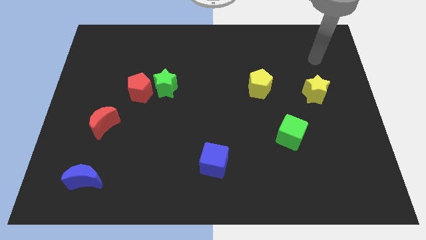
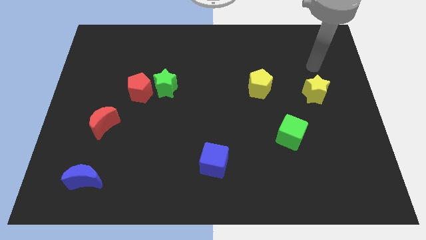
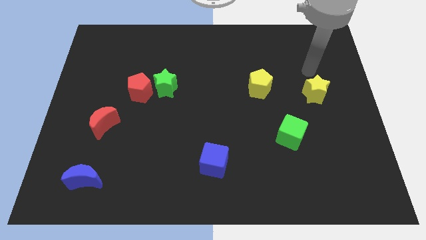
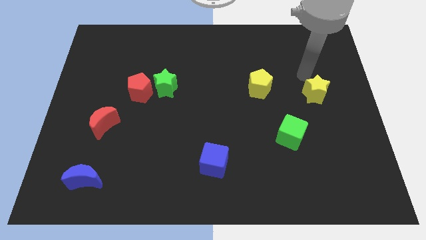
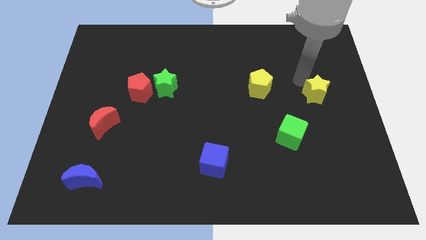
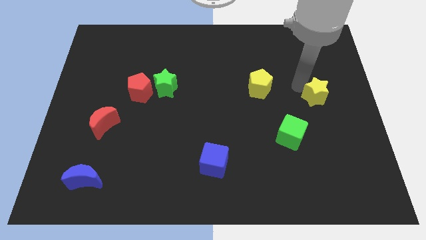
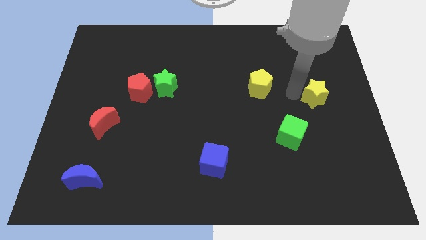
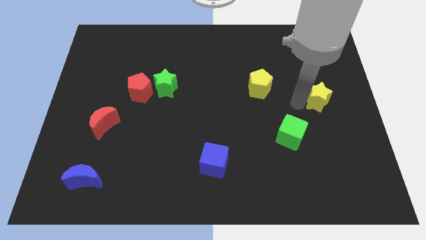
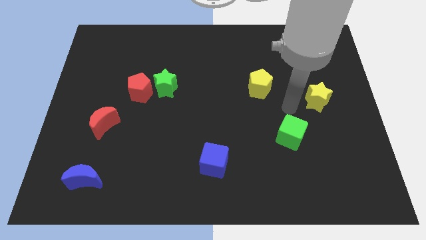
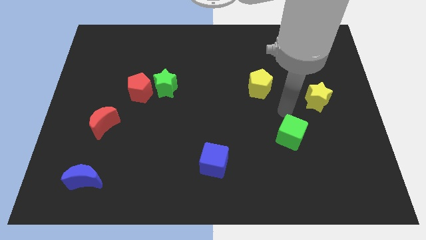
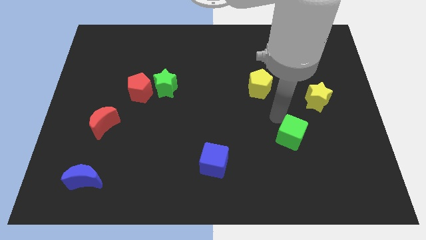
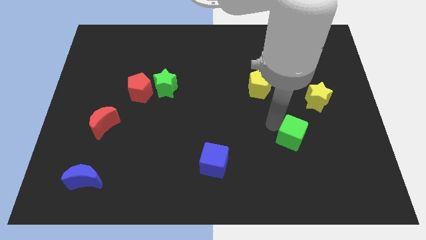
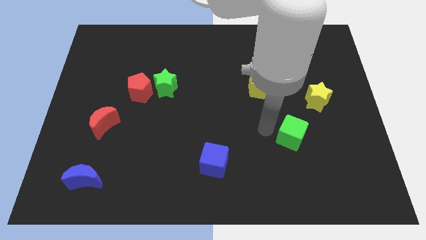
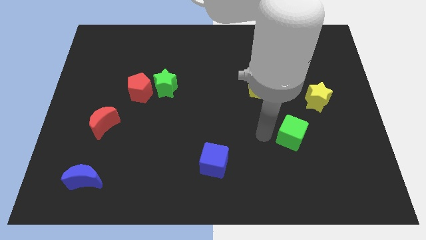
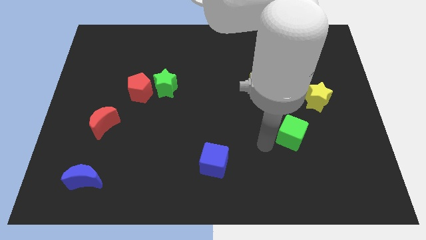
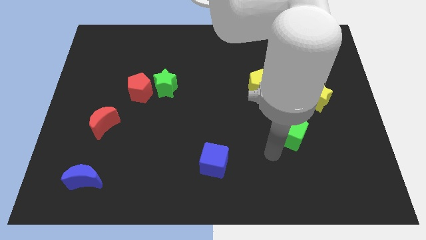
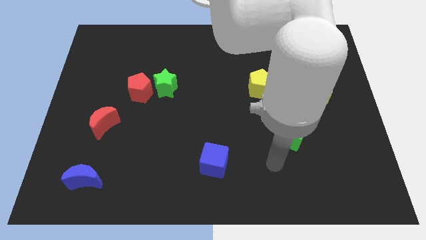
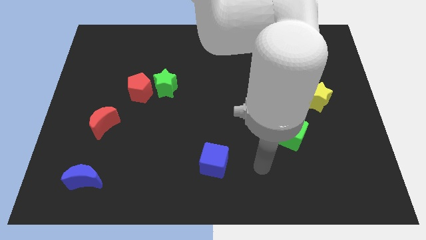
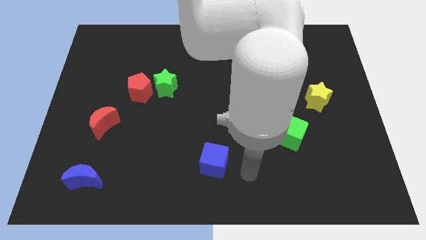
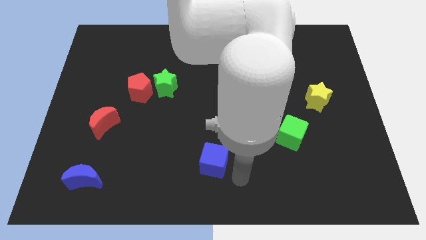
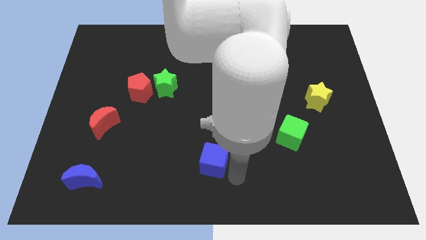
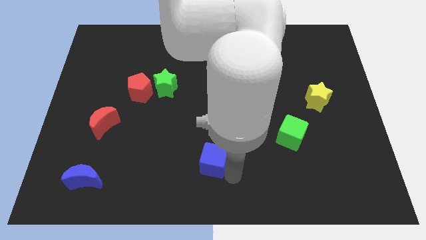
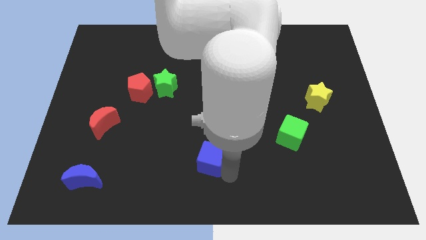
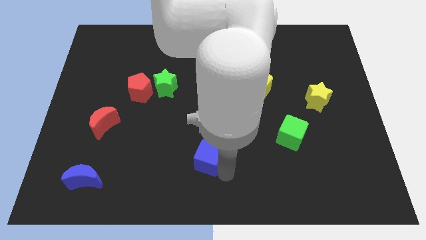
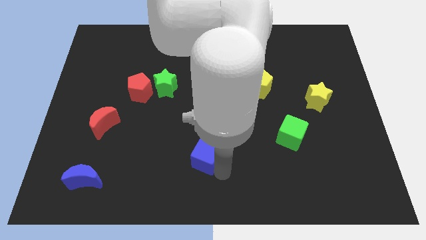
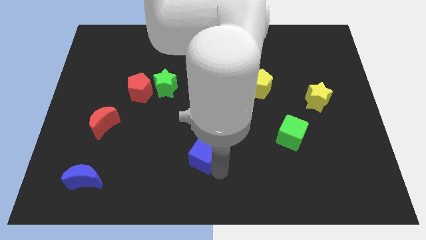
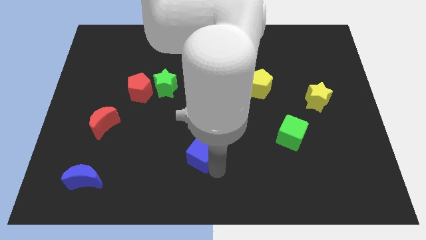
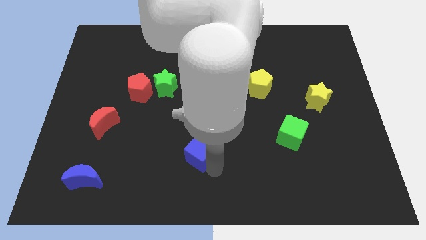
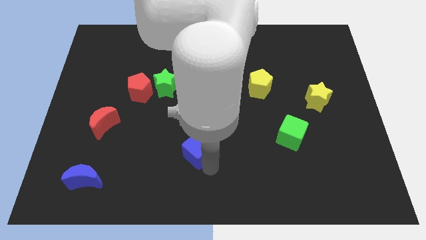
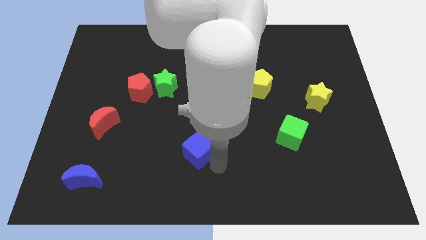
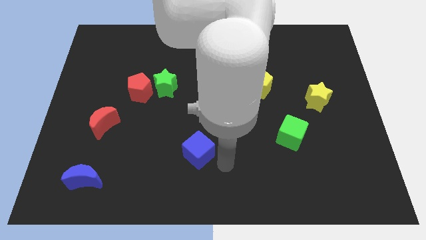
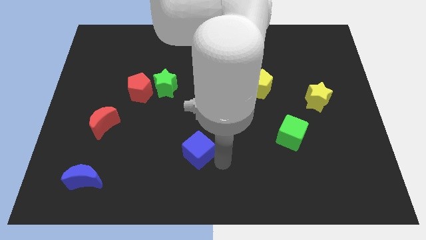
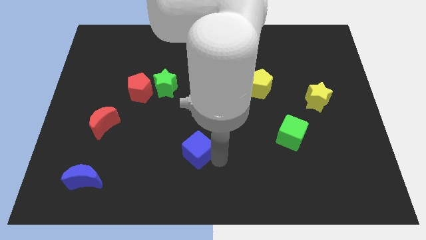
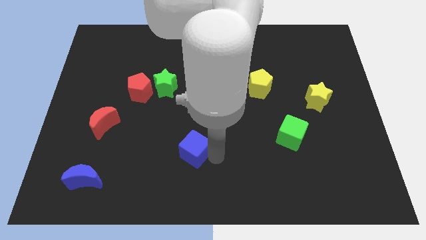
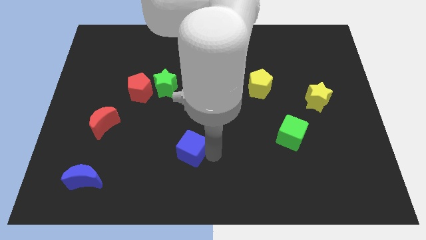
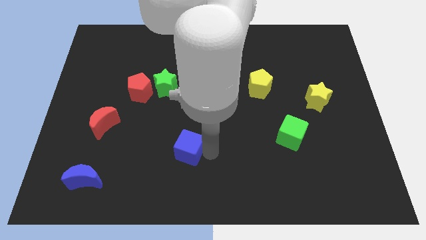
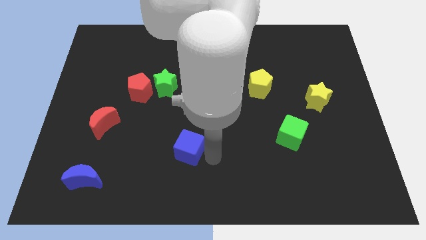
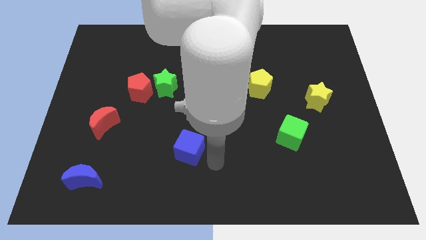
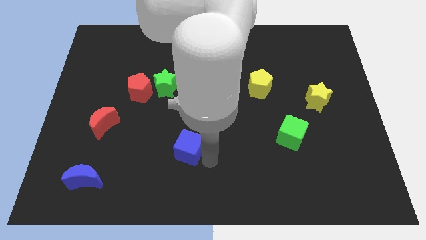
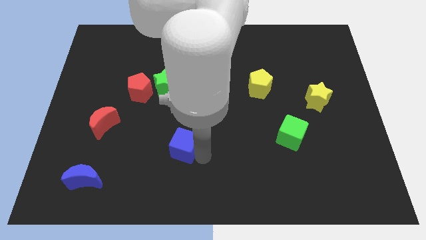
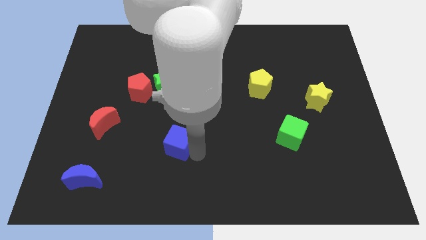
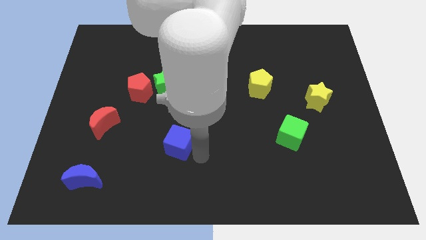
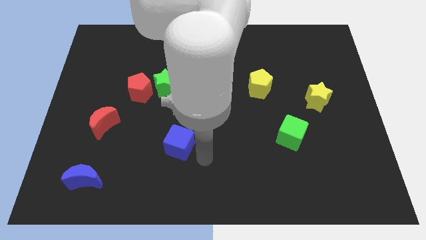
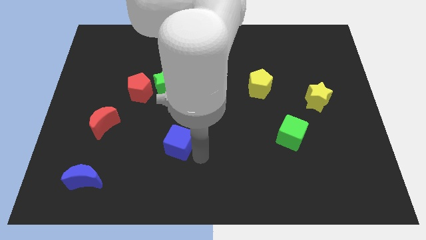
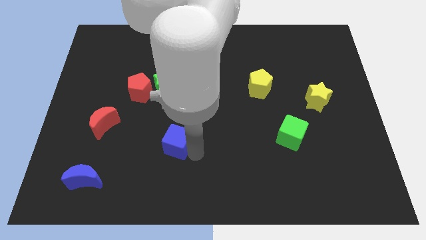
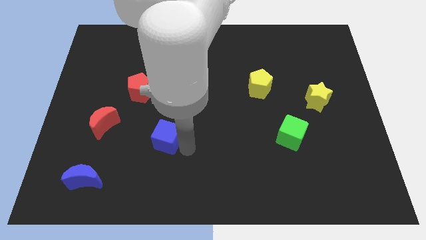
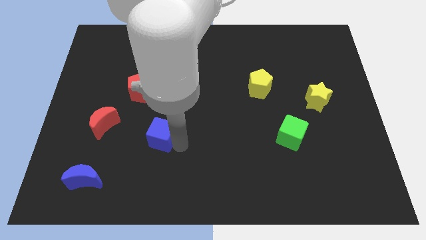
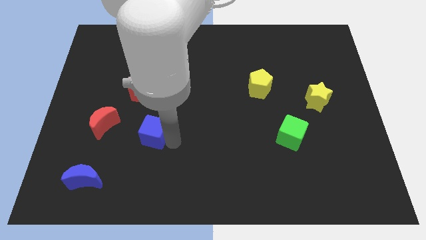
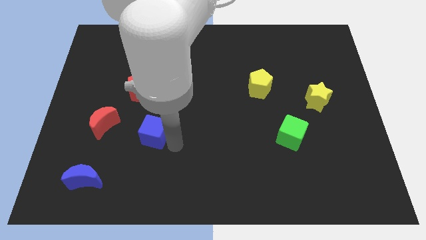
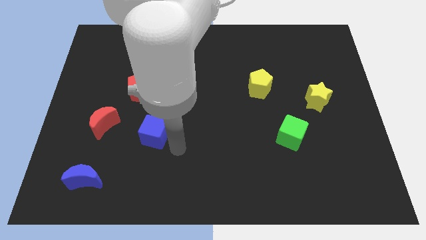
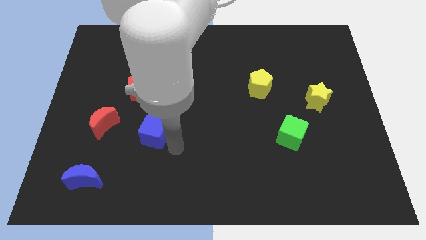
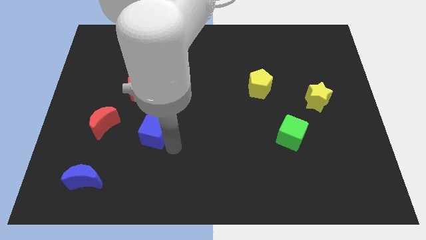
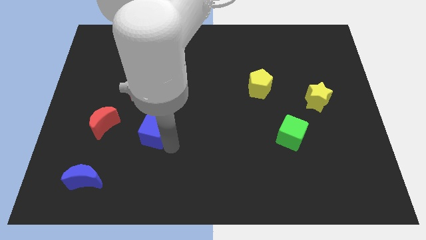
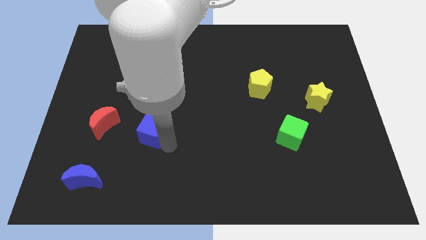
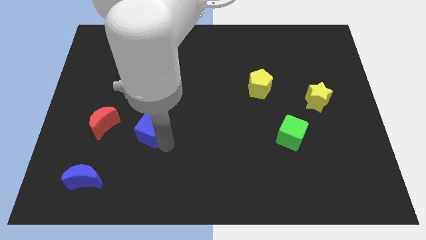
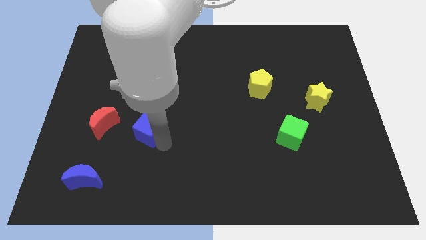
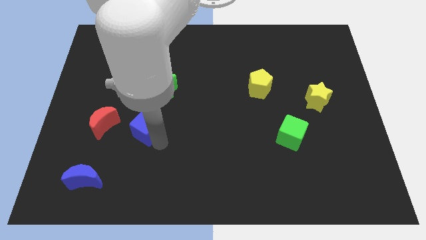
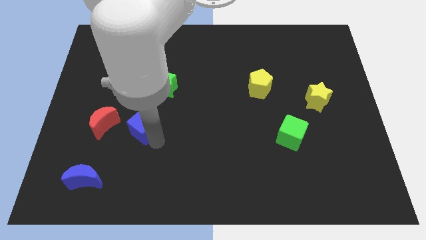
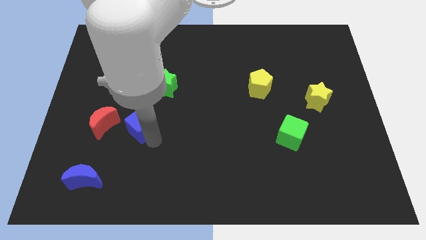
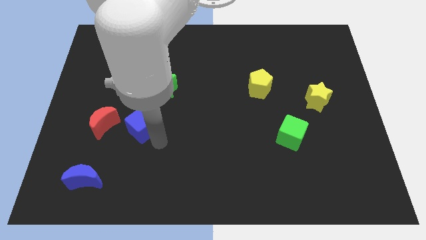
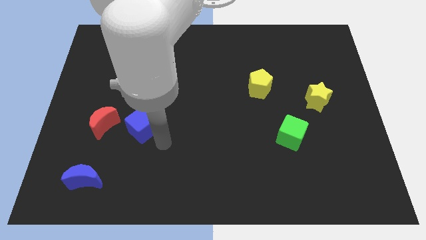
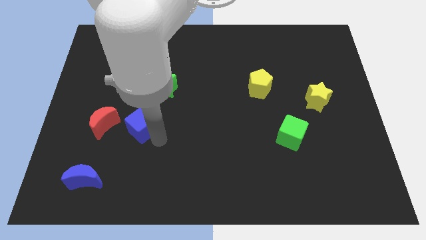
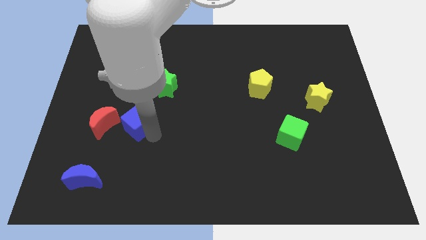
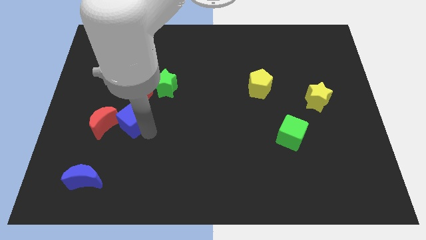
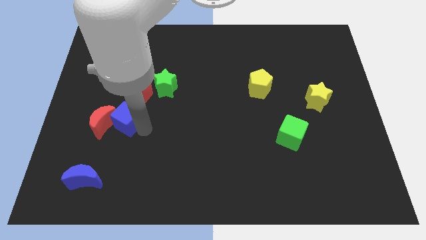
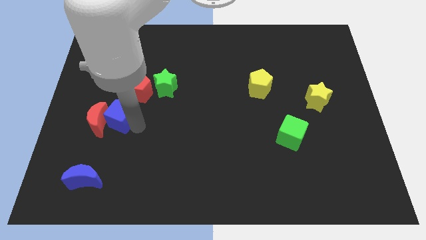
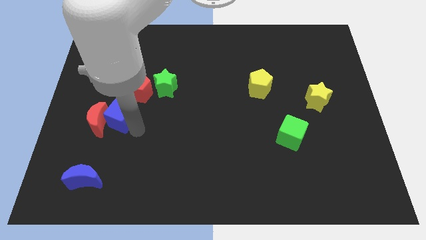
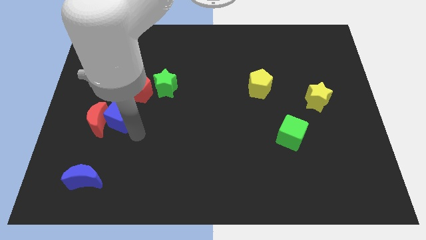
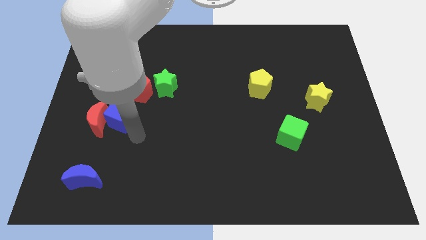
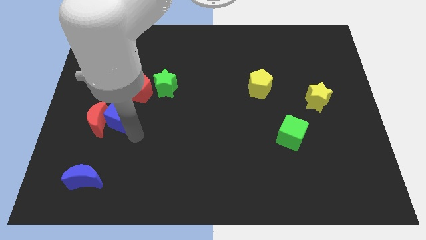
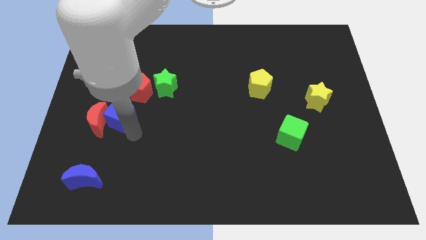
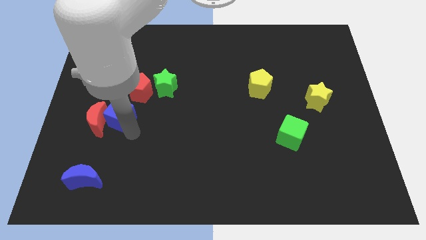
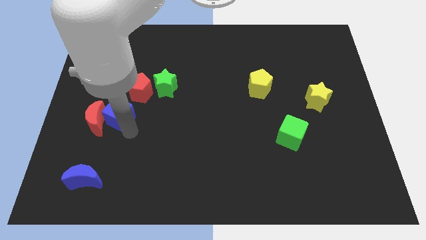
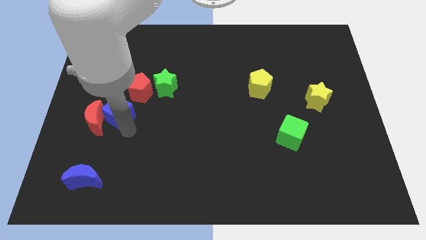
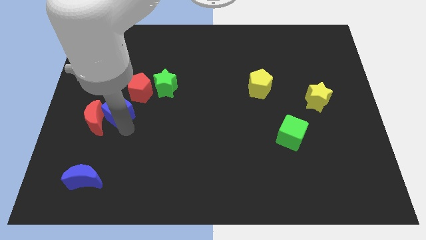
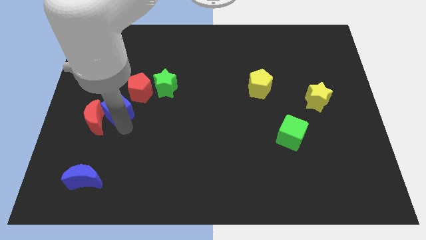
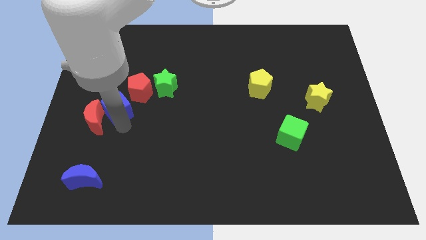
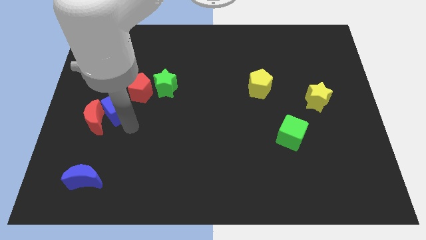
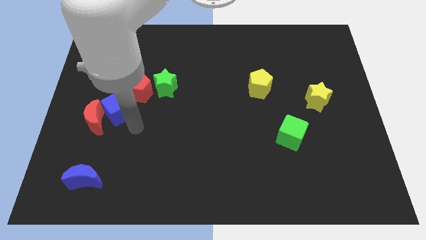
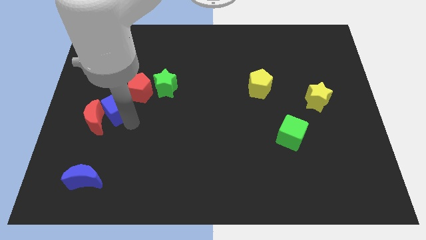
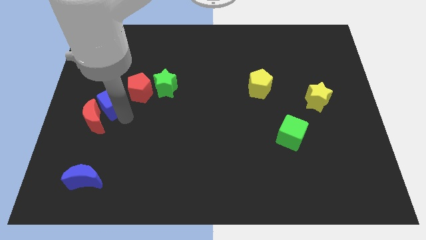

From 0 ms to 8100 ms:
move the blue cube to the left side of the red pentagon
